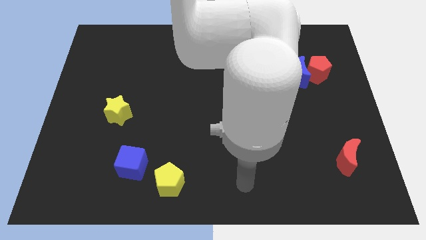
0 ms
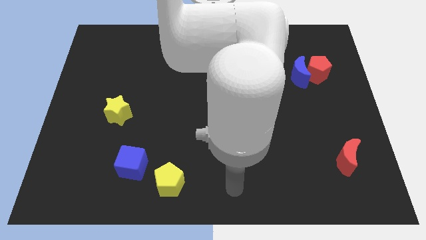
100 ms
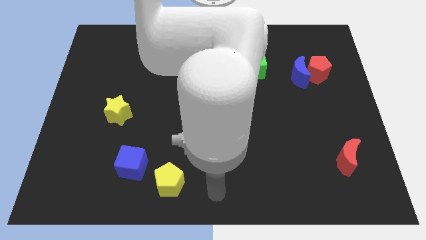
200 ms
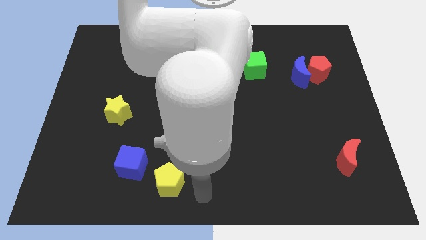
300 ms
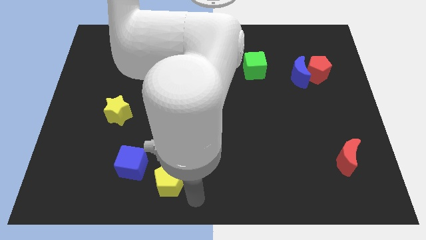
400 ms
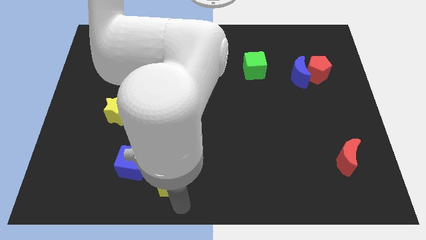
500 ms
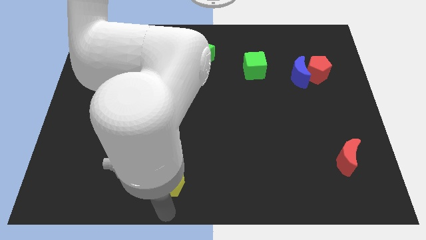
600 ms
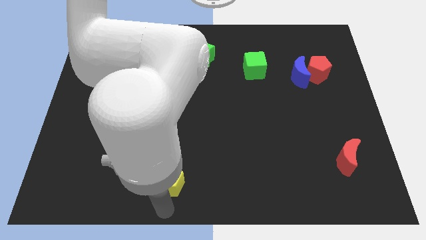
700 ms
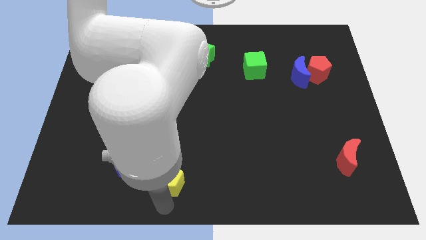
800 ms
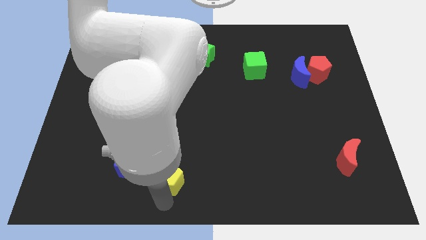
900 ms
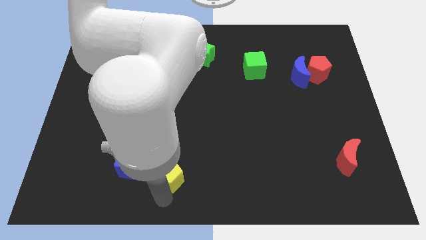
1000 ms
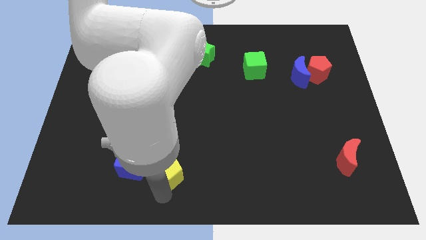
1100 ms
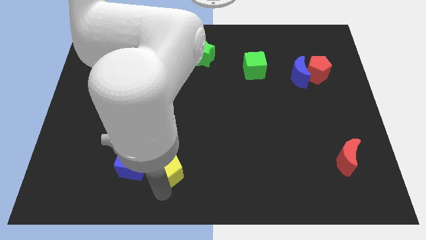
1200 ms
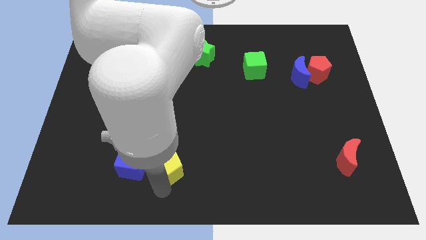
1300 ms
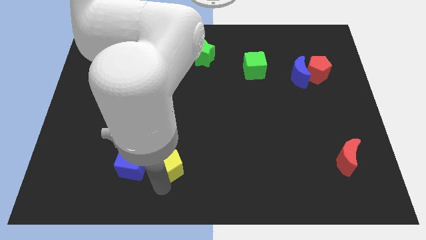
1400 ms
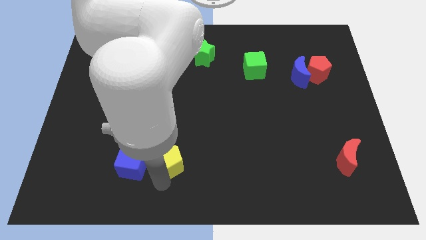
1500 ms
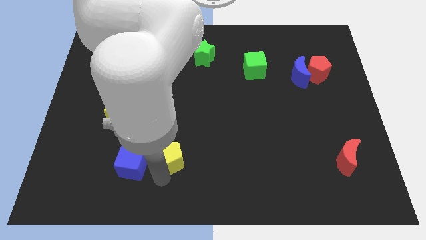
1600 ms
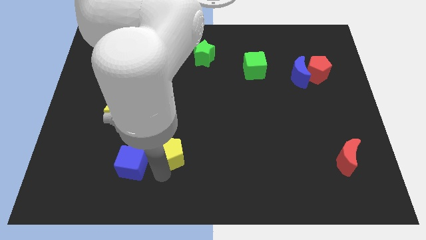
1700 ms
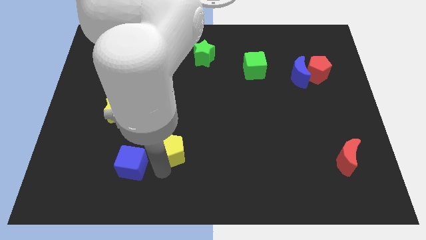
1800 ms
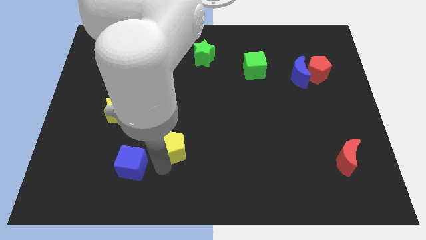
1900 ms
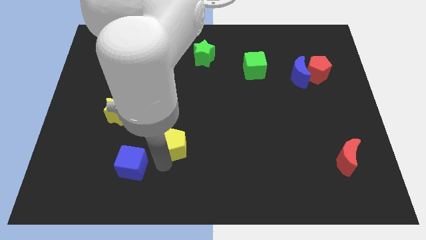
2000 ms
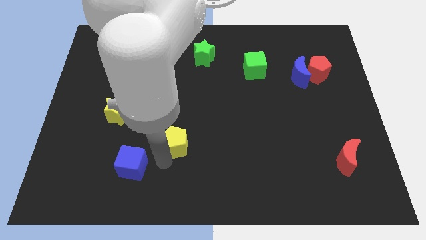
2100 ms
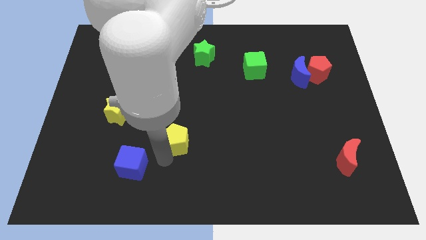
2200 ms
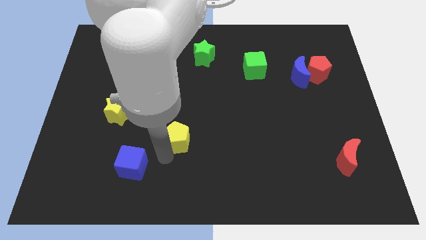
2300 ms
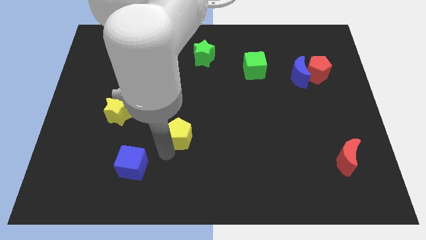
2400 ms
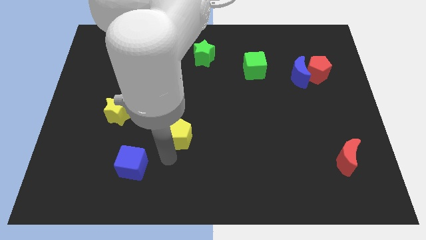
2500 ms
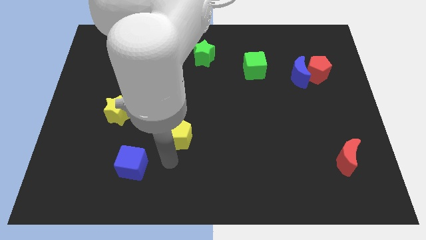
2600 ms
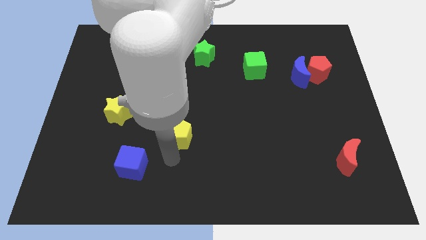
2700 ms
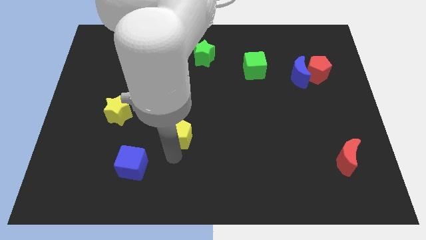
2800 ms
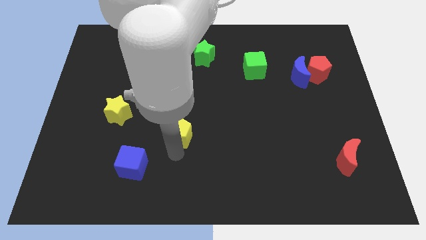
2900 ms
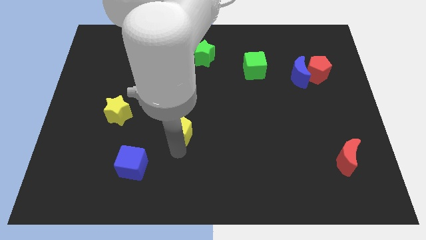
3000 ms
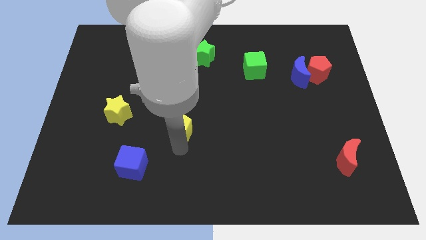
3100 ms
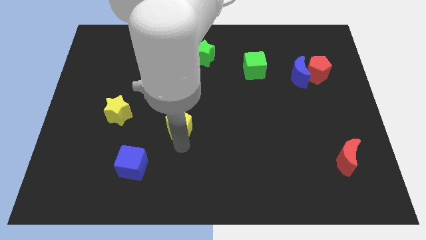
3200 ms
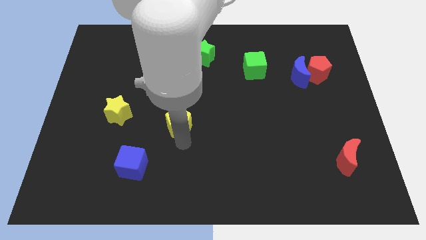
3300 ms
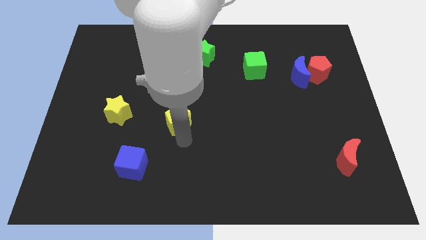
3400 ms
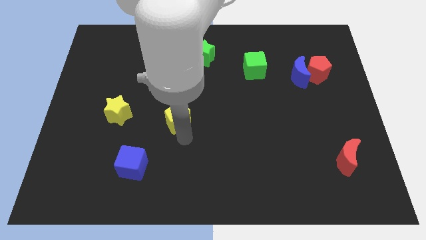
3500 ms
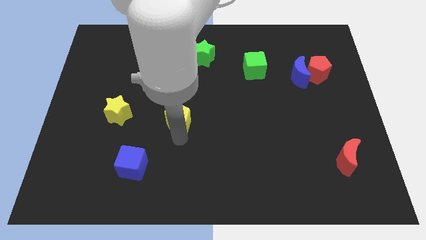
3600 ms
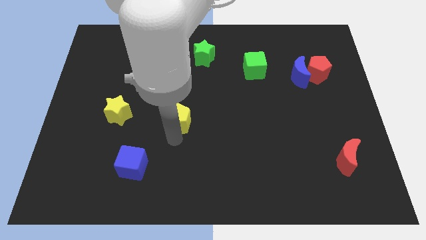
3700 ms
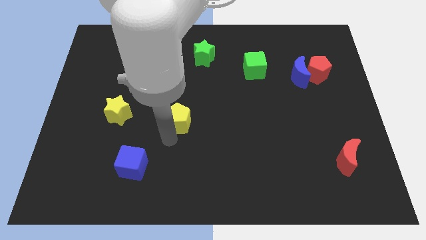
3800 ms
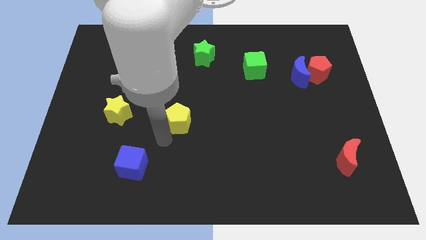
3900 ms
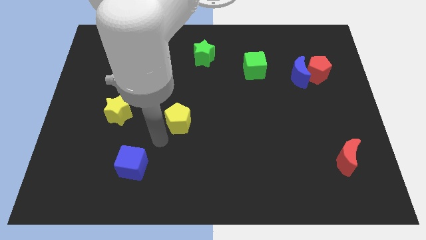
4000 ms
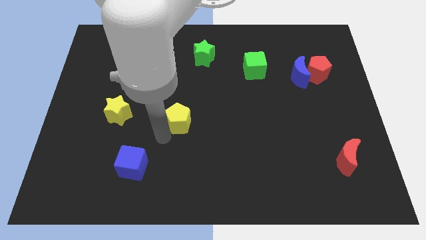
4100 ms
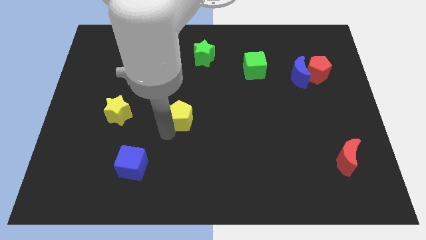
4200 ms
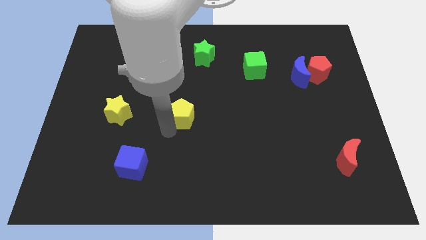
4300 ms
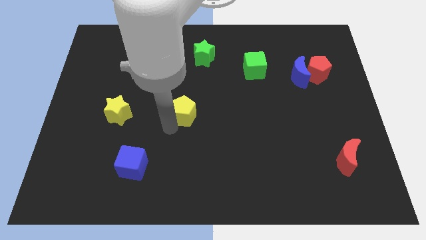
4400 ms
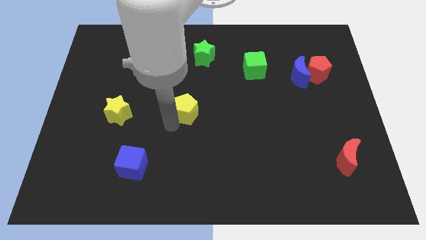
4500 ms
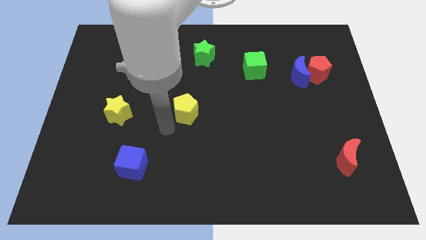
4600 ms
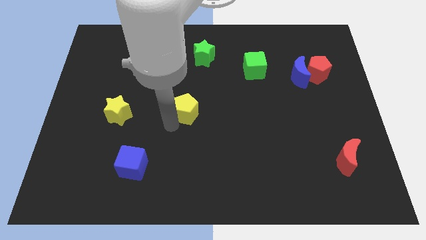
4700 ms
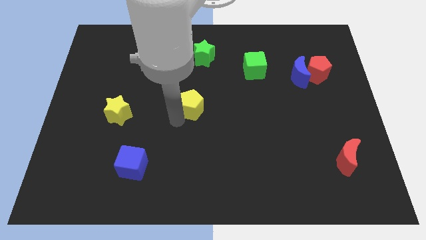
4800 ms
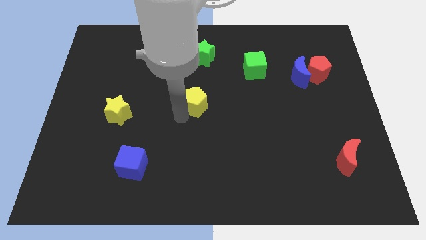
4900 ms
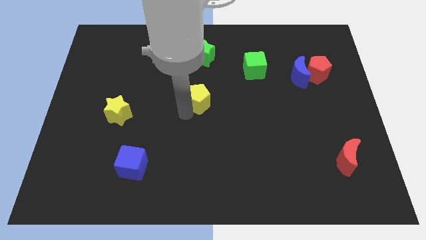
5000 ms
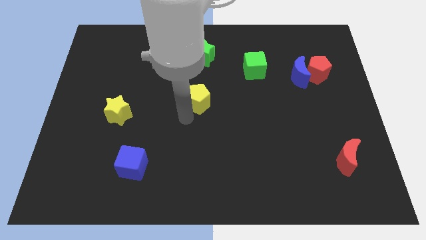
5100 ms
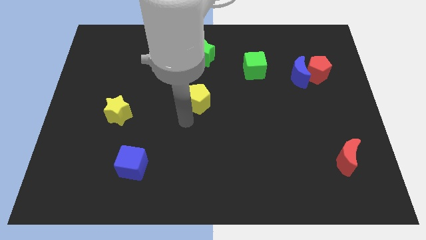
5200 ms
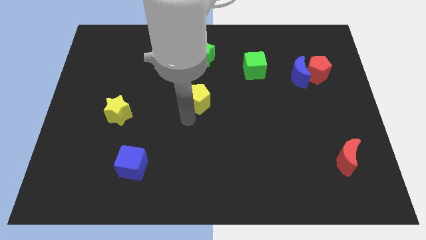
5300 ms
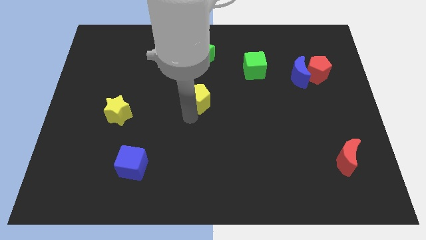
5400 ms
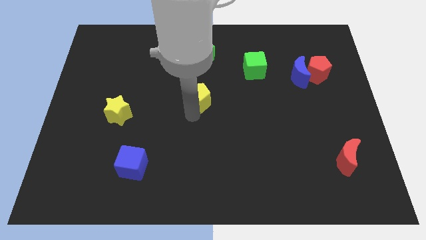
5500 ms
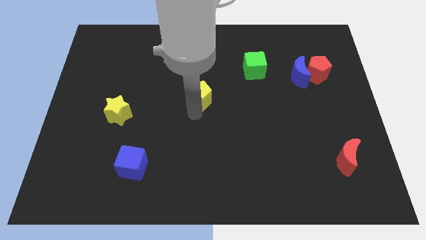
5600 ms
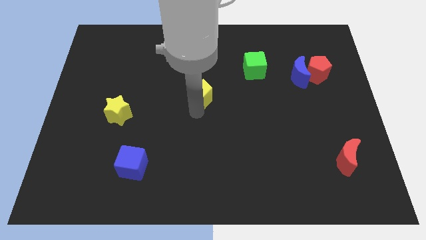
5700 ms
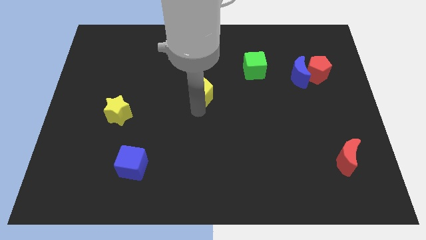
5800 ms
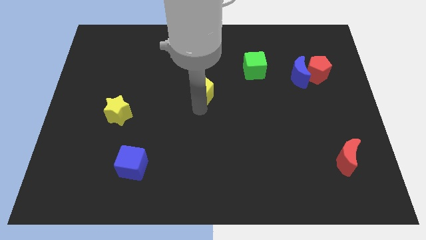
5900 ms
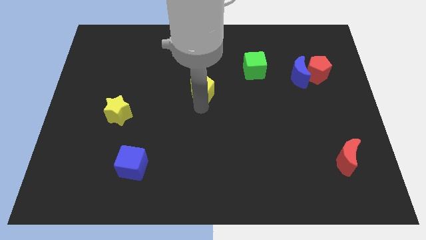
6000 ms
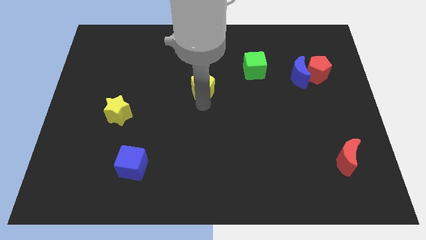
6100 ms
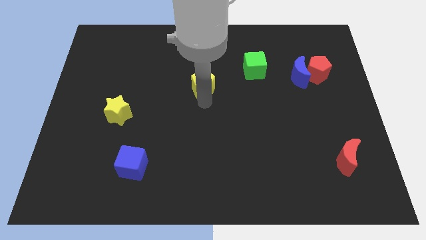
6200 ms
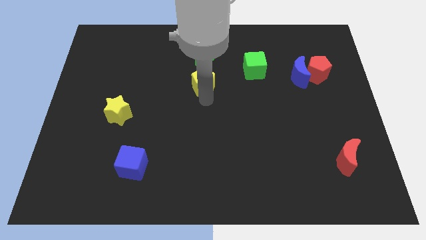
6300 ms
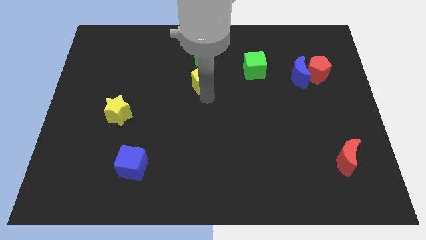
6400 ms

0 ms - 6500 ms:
slide the yellow pentagon left of the green cube
